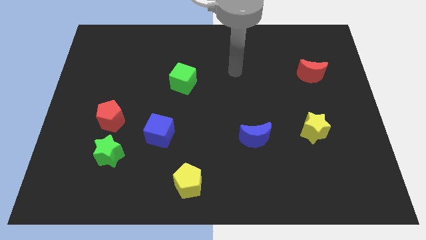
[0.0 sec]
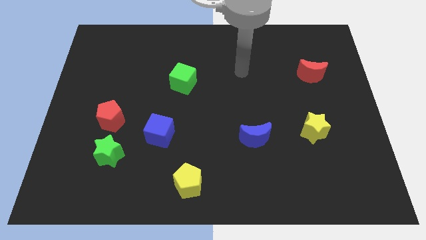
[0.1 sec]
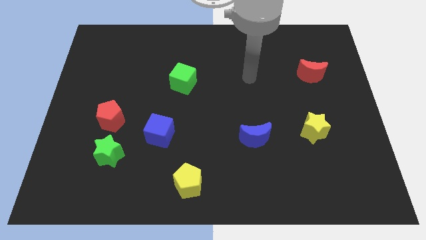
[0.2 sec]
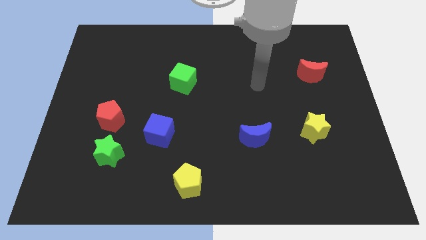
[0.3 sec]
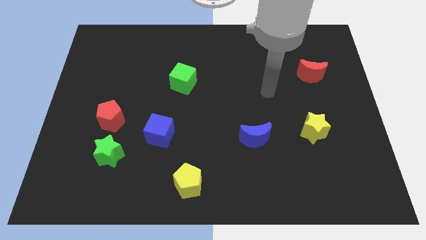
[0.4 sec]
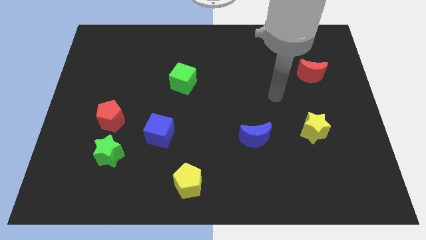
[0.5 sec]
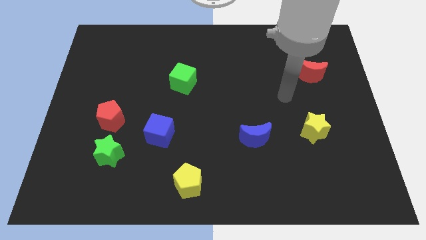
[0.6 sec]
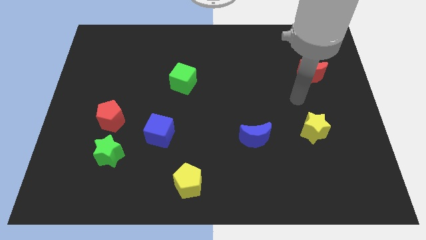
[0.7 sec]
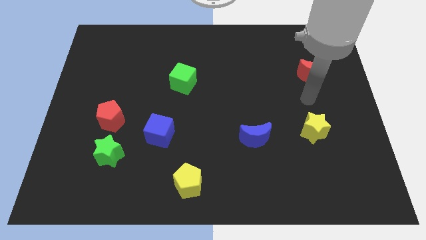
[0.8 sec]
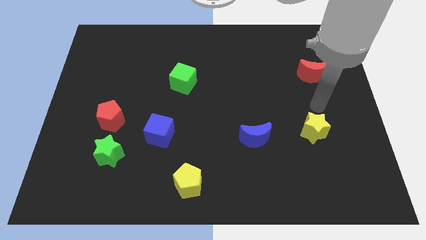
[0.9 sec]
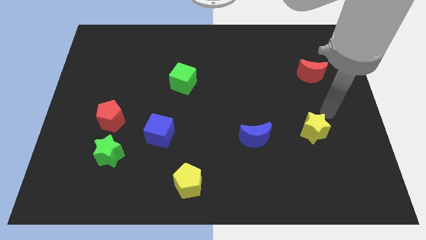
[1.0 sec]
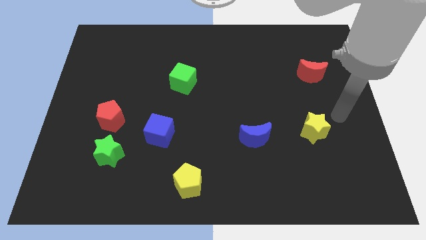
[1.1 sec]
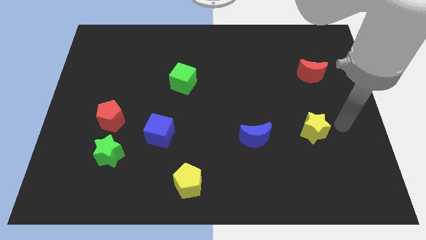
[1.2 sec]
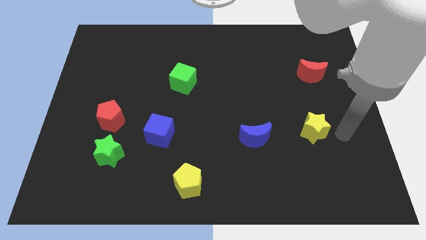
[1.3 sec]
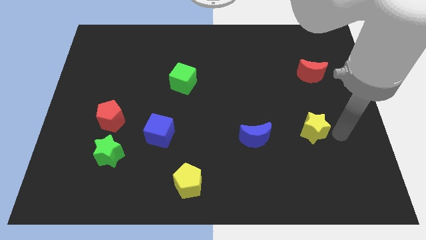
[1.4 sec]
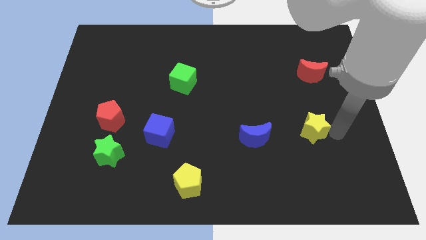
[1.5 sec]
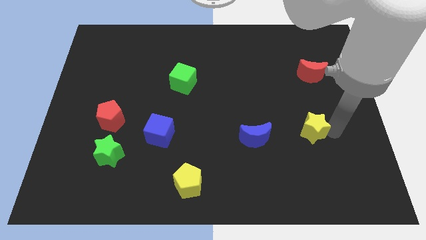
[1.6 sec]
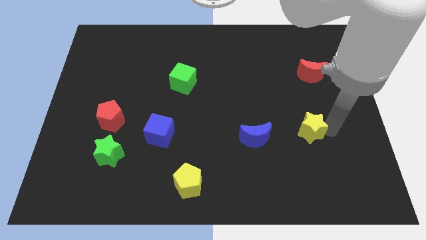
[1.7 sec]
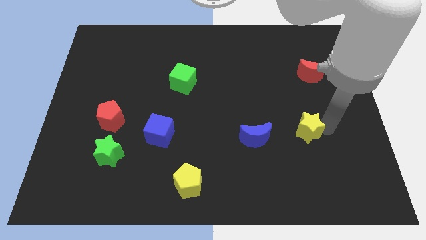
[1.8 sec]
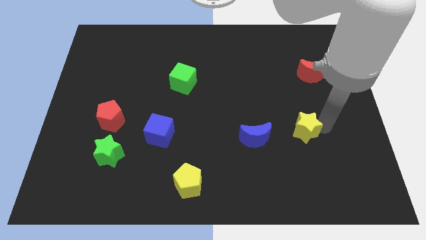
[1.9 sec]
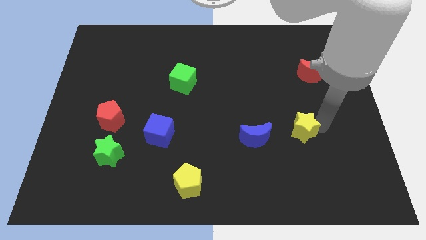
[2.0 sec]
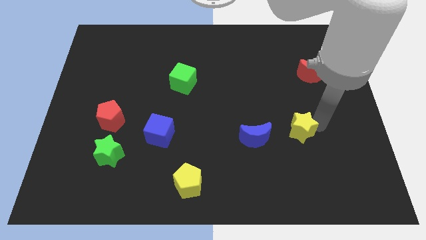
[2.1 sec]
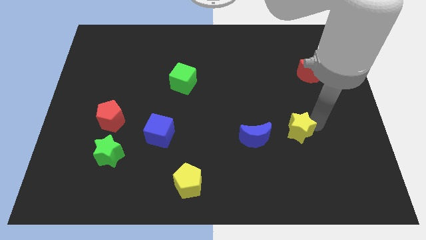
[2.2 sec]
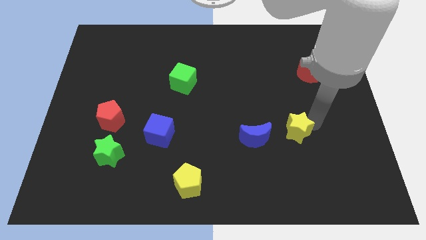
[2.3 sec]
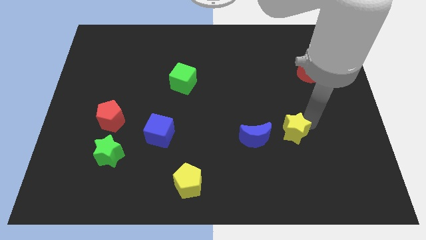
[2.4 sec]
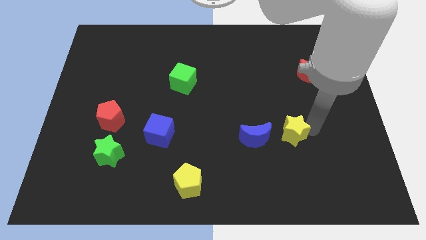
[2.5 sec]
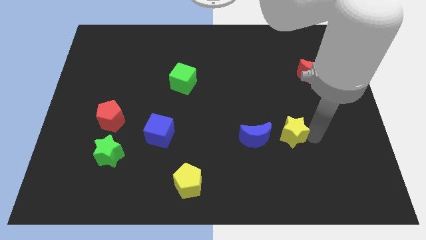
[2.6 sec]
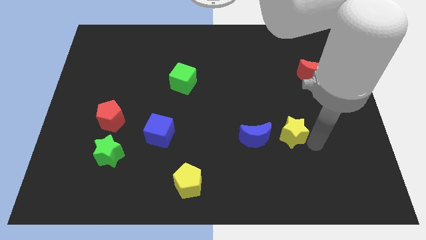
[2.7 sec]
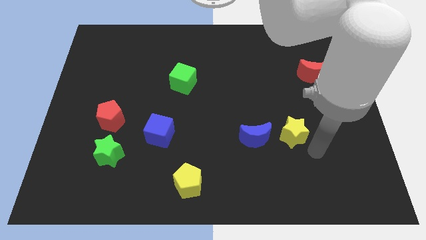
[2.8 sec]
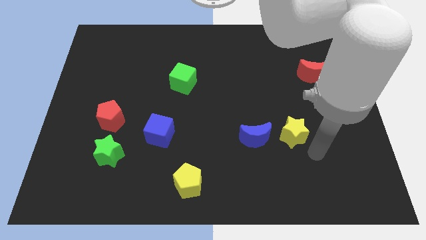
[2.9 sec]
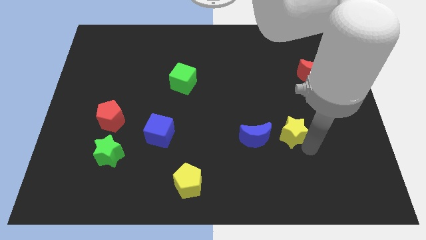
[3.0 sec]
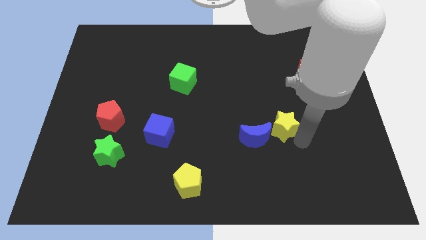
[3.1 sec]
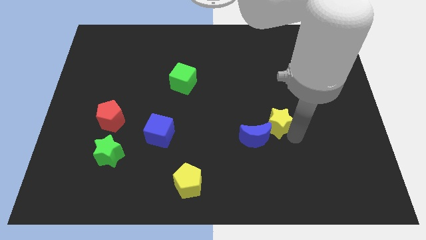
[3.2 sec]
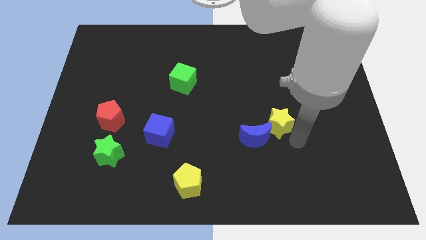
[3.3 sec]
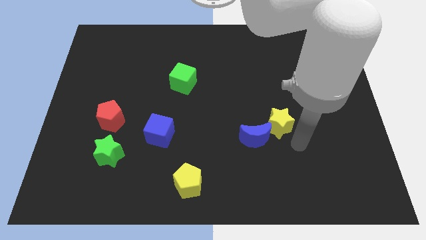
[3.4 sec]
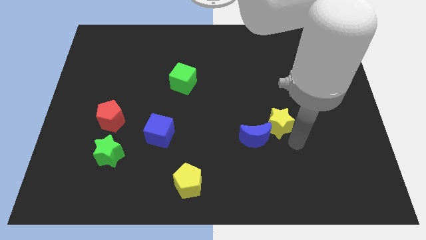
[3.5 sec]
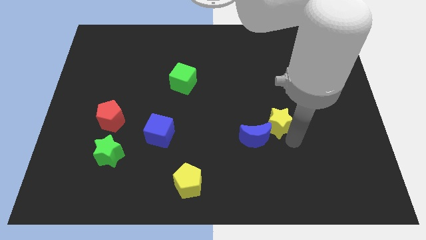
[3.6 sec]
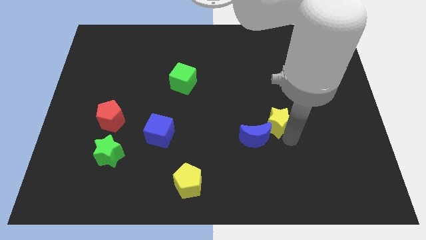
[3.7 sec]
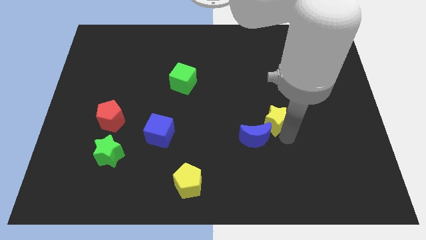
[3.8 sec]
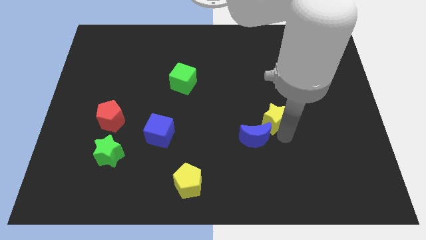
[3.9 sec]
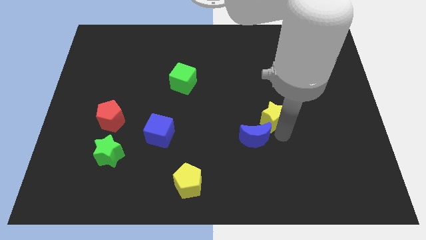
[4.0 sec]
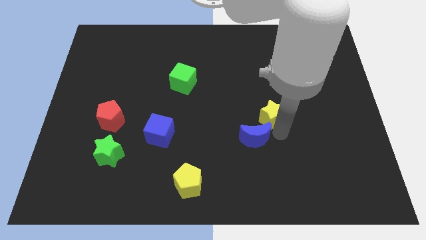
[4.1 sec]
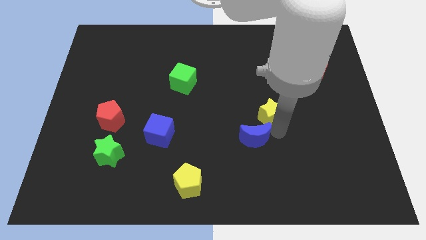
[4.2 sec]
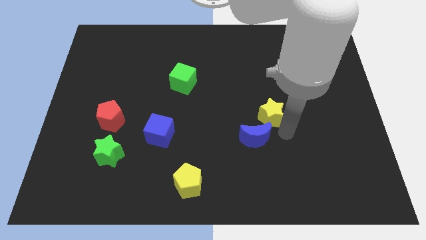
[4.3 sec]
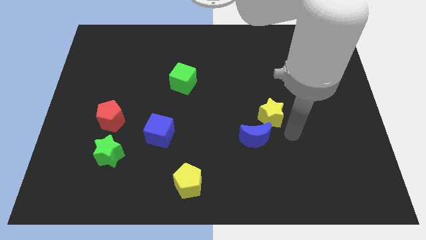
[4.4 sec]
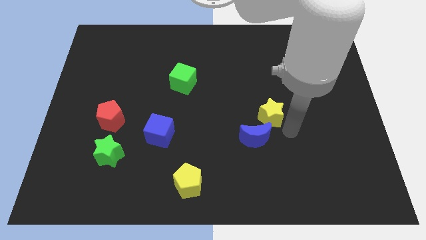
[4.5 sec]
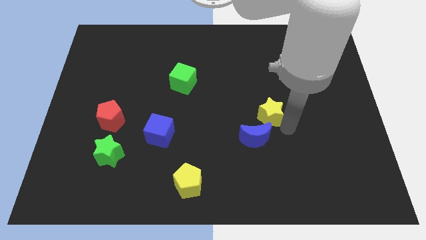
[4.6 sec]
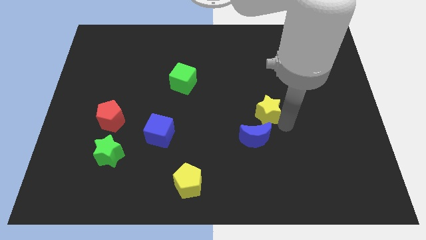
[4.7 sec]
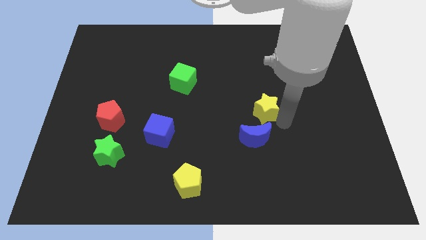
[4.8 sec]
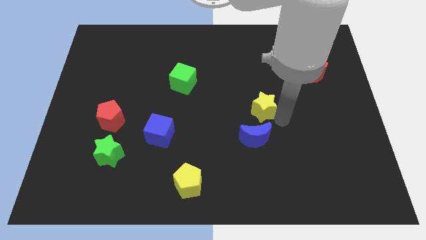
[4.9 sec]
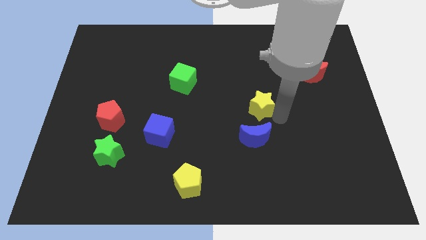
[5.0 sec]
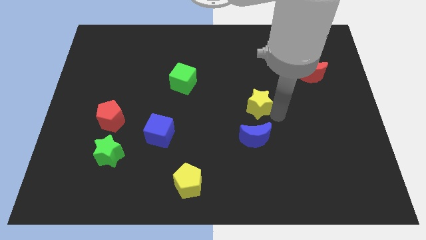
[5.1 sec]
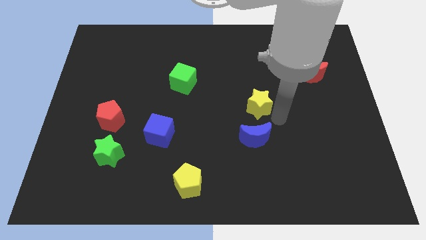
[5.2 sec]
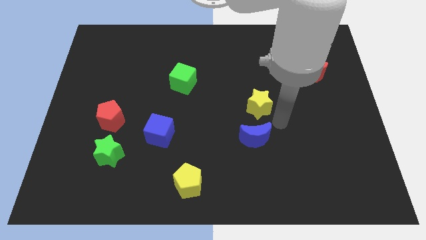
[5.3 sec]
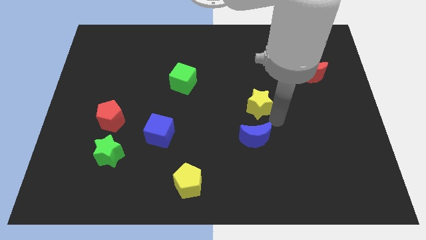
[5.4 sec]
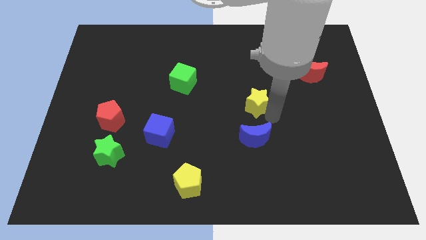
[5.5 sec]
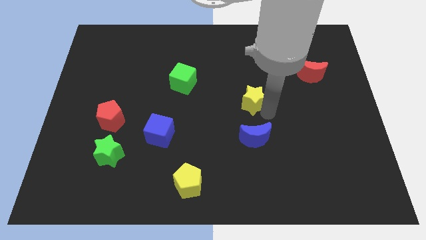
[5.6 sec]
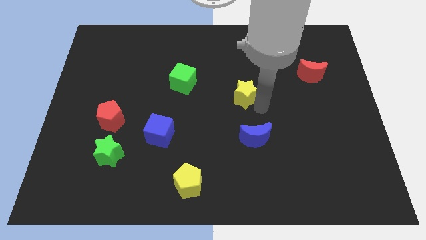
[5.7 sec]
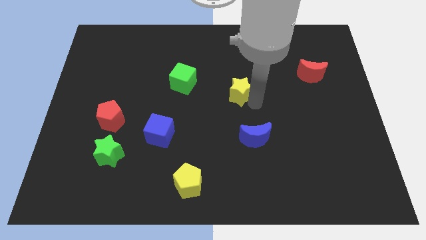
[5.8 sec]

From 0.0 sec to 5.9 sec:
put the yellow star right of the green cube

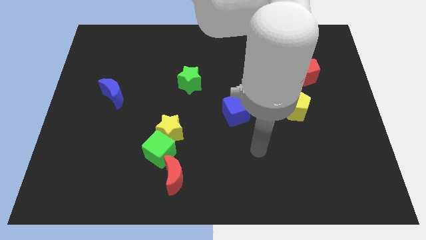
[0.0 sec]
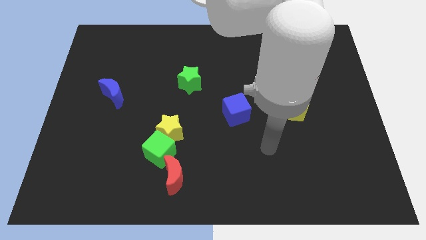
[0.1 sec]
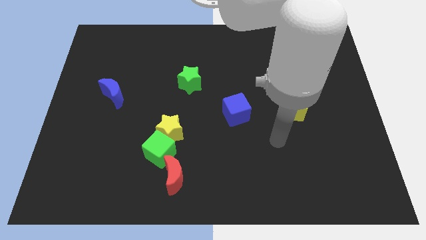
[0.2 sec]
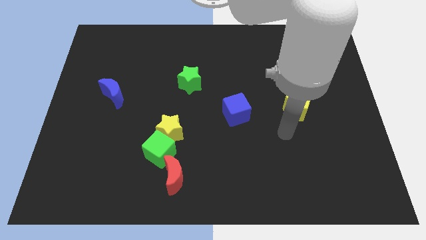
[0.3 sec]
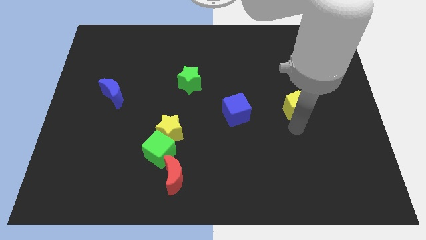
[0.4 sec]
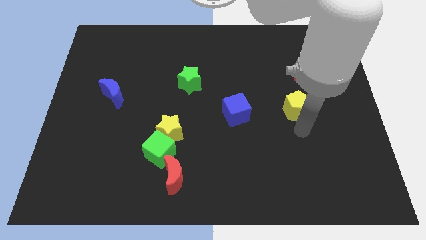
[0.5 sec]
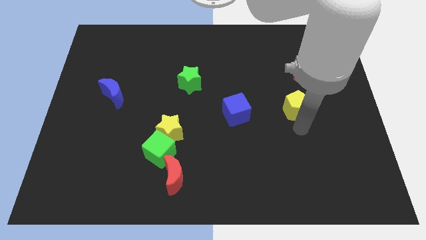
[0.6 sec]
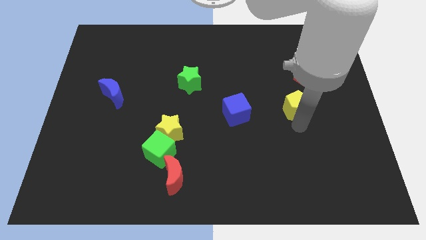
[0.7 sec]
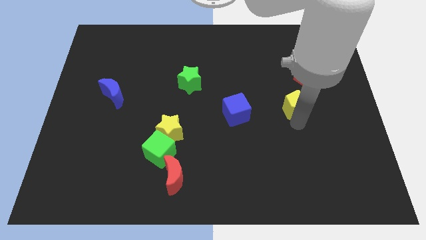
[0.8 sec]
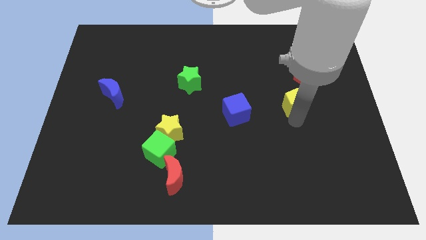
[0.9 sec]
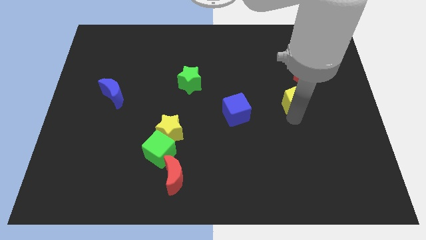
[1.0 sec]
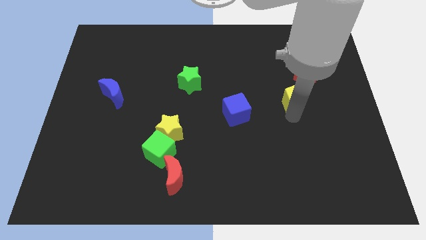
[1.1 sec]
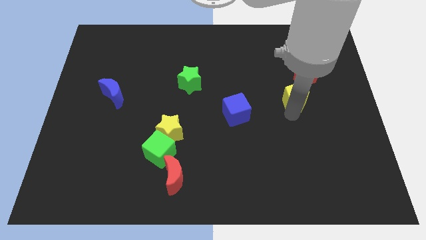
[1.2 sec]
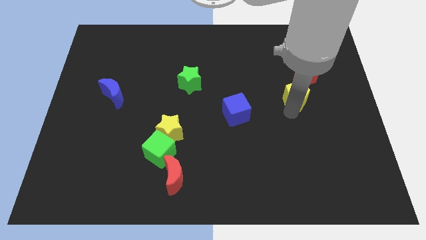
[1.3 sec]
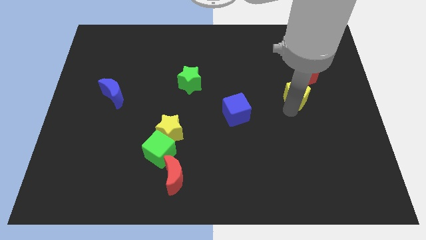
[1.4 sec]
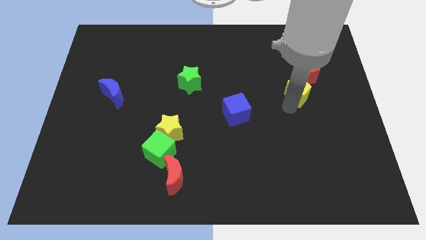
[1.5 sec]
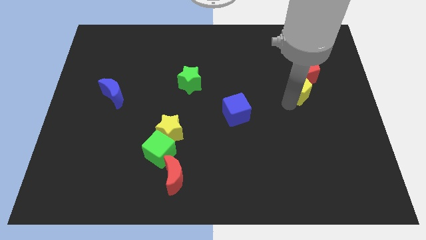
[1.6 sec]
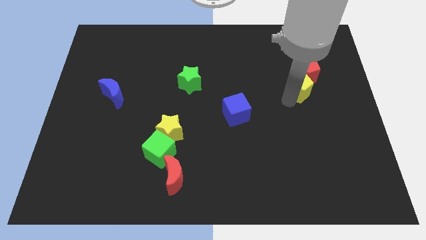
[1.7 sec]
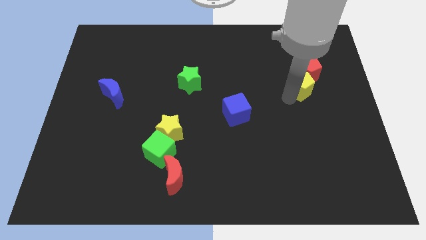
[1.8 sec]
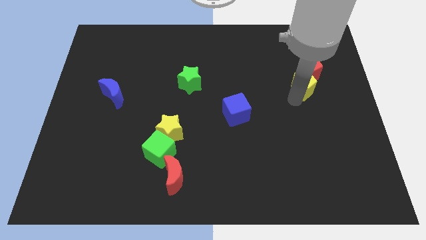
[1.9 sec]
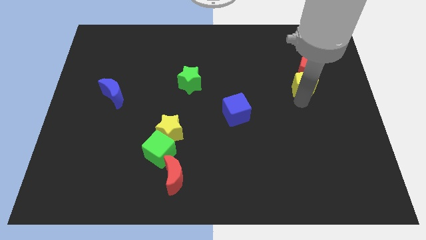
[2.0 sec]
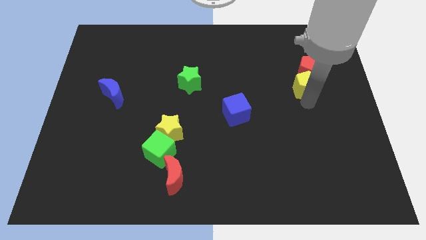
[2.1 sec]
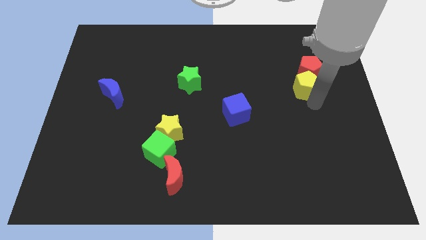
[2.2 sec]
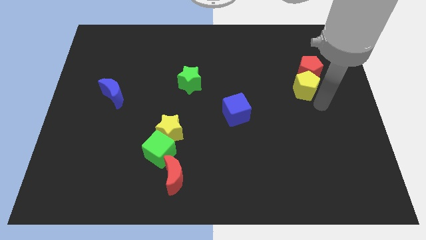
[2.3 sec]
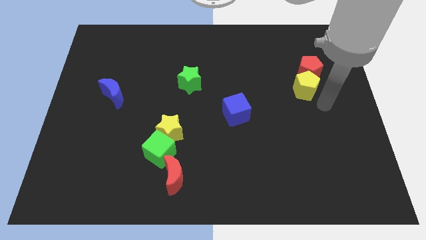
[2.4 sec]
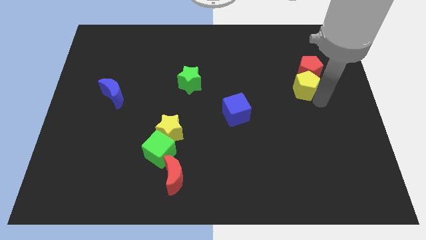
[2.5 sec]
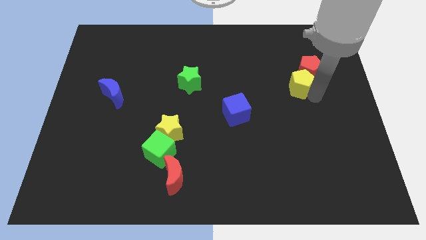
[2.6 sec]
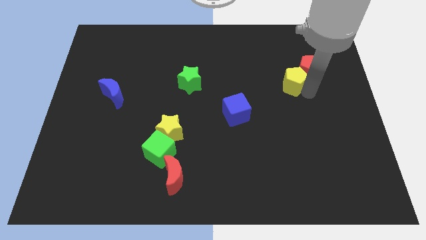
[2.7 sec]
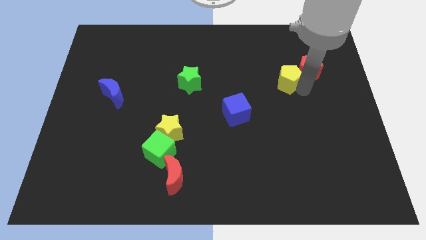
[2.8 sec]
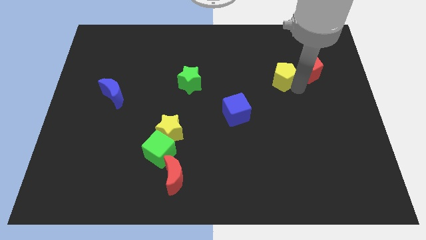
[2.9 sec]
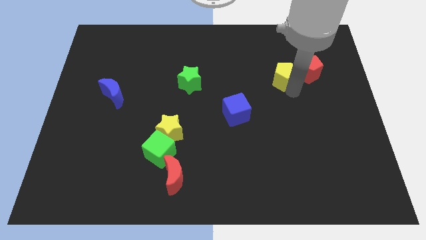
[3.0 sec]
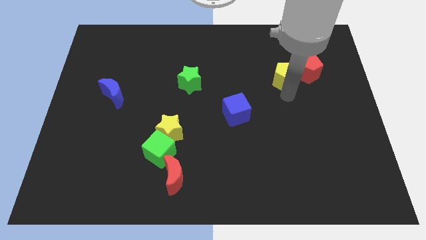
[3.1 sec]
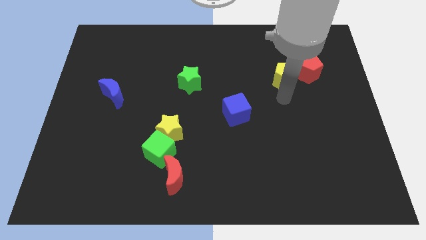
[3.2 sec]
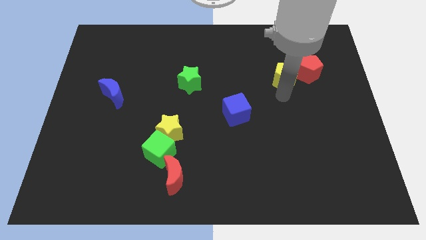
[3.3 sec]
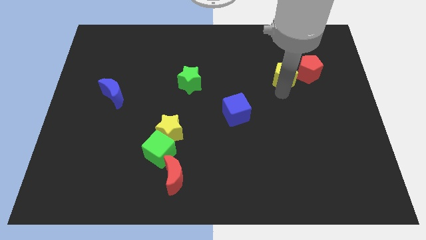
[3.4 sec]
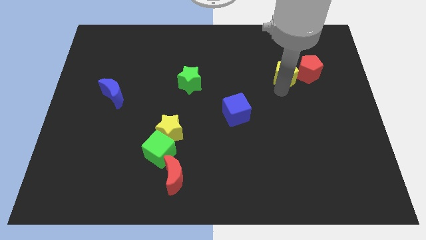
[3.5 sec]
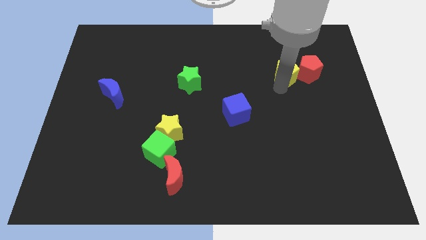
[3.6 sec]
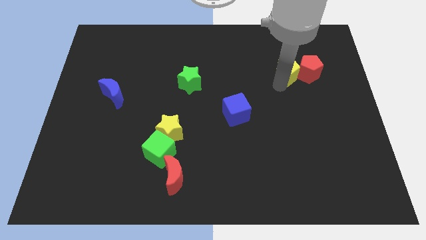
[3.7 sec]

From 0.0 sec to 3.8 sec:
push the yellow pentagon diagonally up and to the left of the red pentagon
